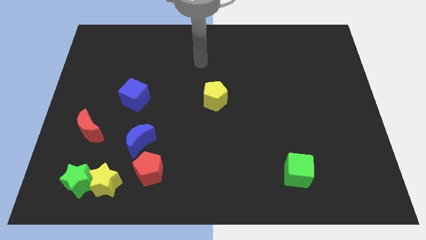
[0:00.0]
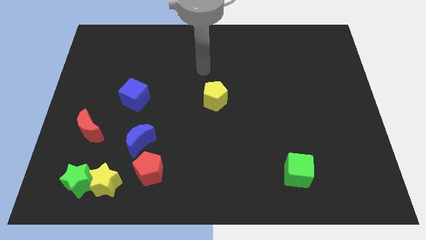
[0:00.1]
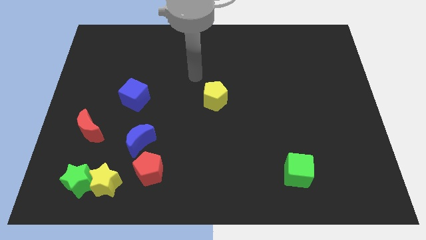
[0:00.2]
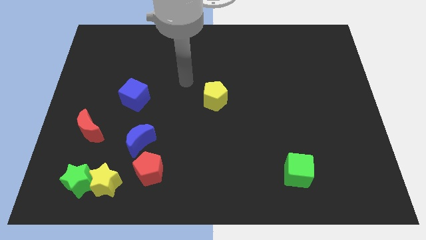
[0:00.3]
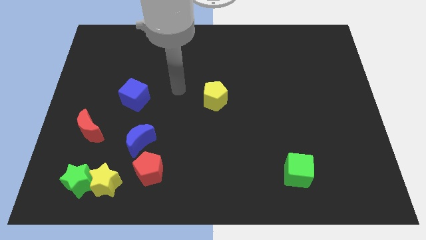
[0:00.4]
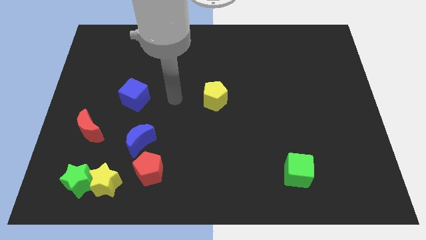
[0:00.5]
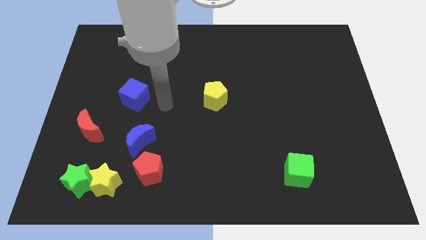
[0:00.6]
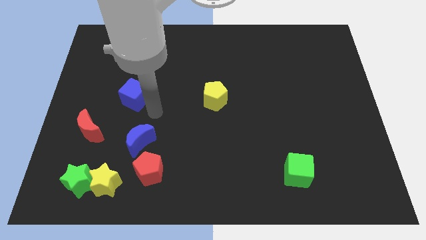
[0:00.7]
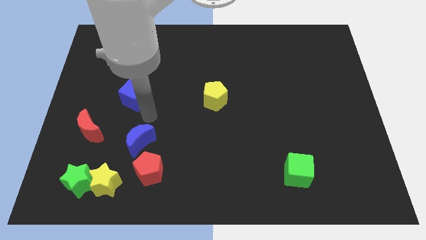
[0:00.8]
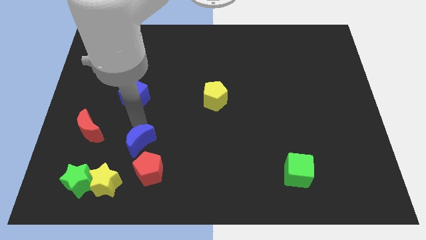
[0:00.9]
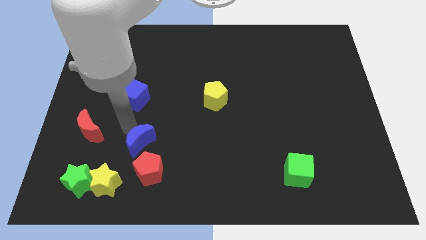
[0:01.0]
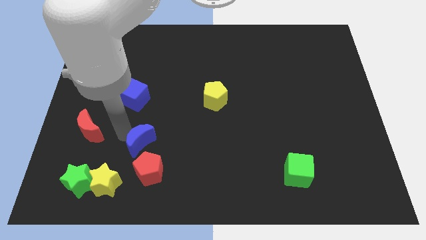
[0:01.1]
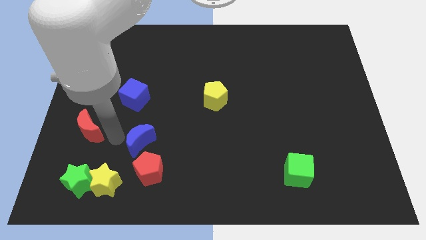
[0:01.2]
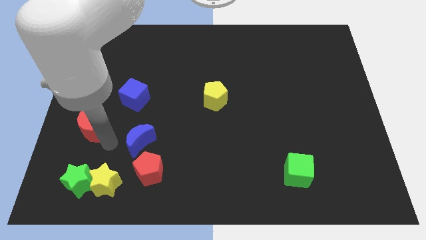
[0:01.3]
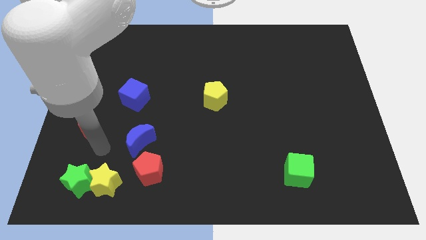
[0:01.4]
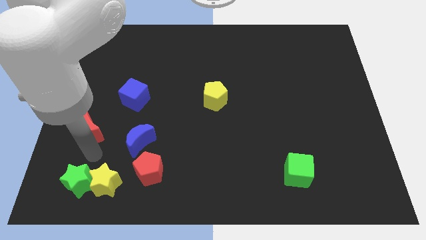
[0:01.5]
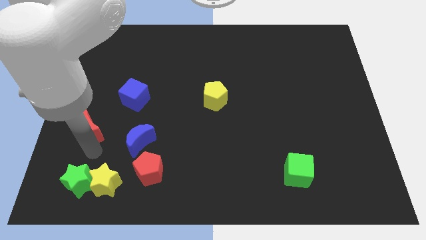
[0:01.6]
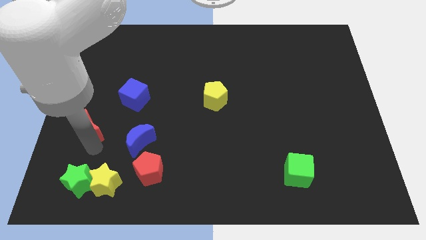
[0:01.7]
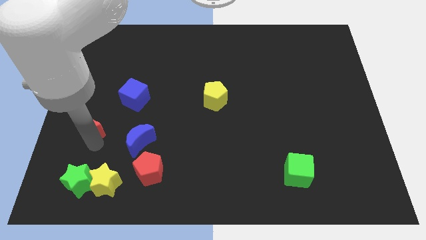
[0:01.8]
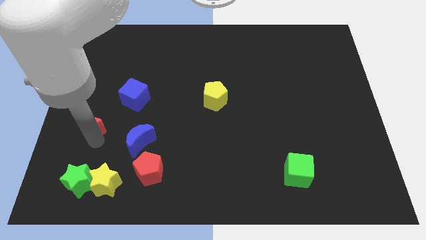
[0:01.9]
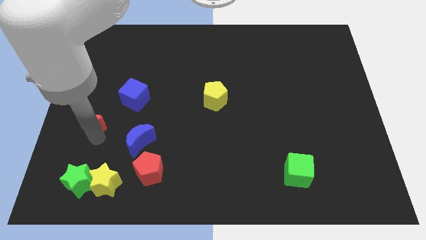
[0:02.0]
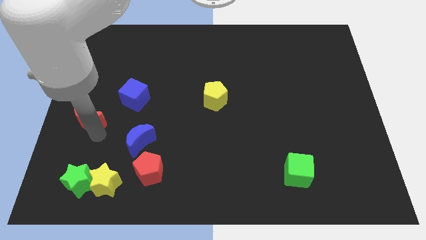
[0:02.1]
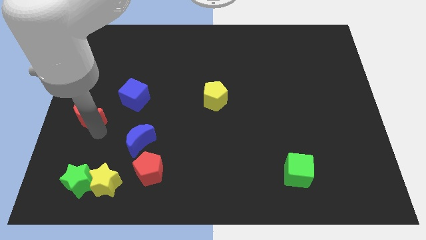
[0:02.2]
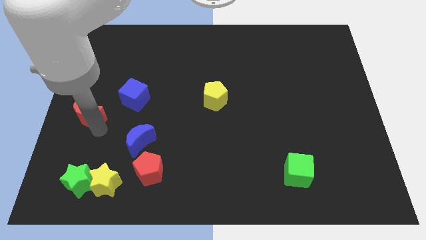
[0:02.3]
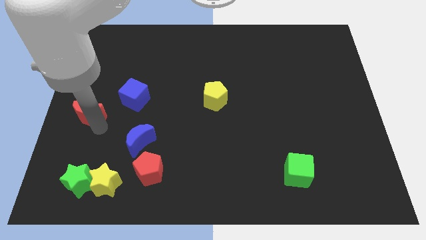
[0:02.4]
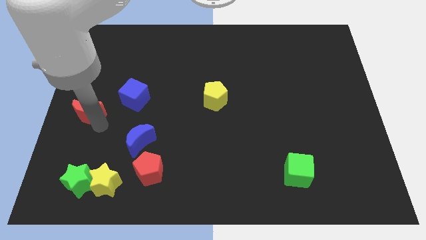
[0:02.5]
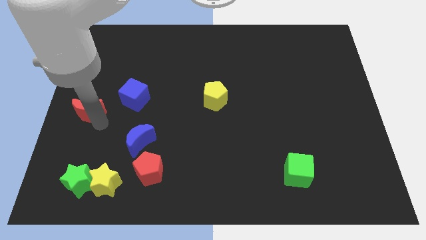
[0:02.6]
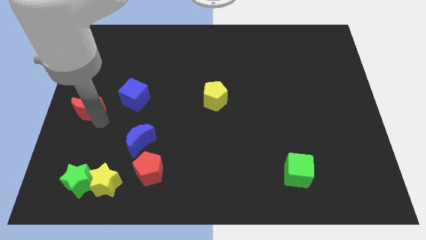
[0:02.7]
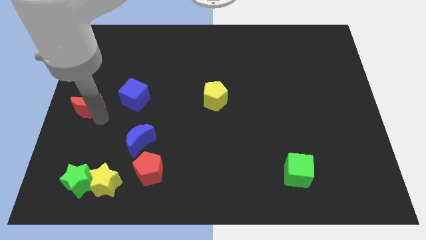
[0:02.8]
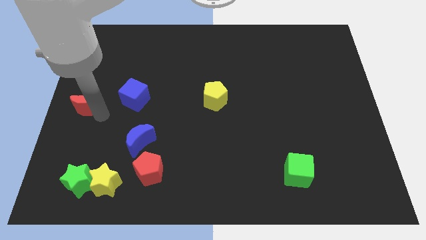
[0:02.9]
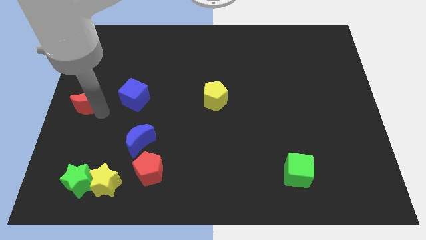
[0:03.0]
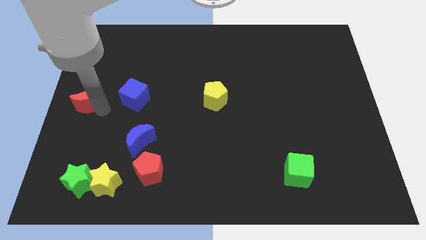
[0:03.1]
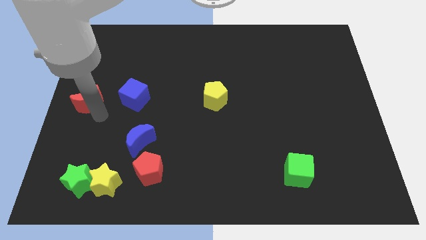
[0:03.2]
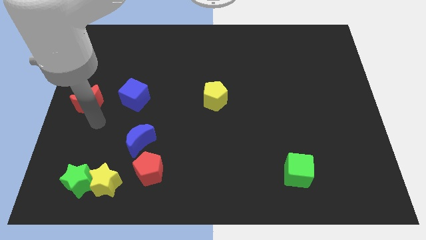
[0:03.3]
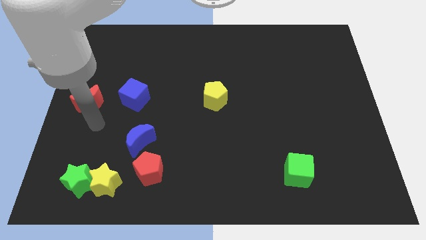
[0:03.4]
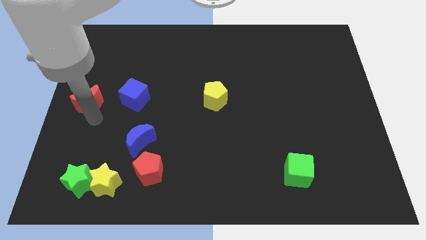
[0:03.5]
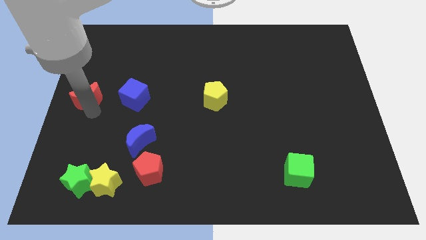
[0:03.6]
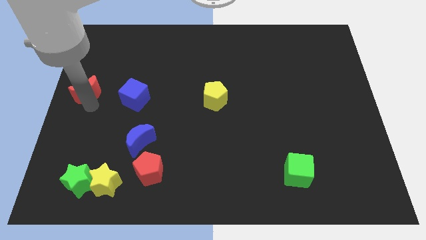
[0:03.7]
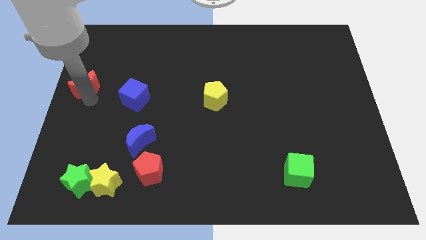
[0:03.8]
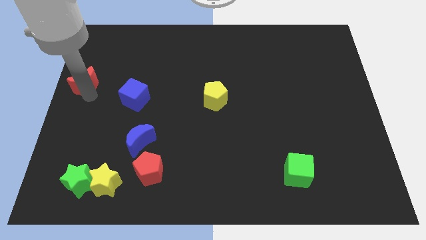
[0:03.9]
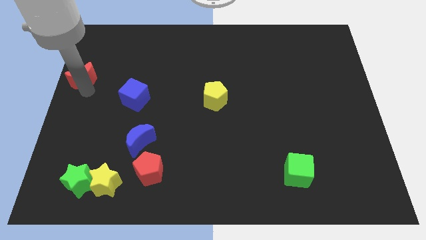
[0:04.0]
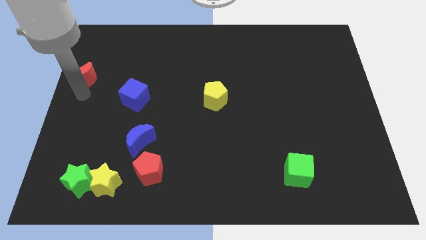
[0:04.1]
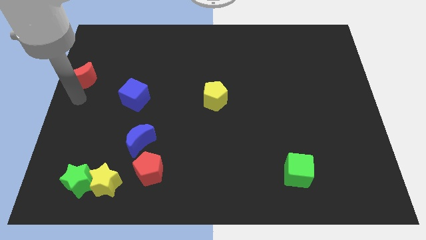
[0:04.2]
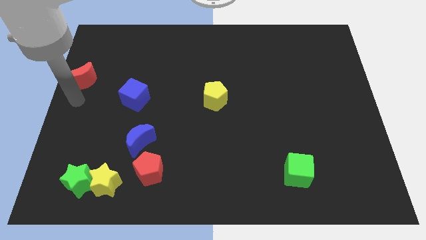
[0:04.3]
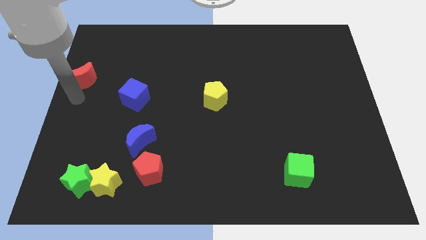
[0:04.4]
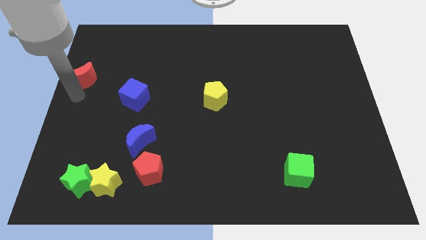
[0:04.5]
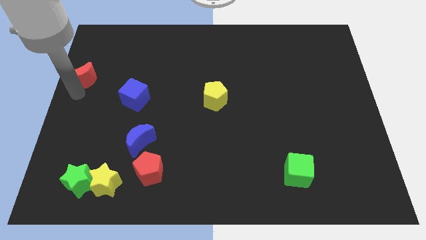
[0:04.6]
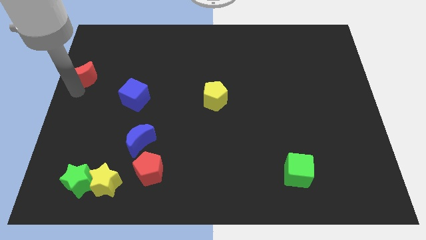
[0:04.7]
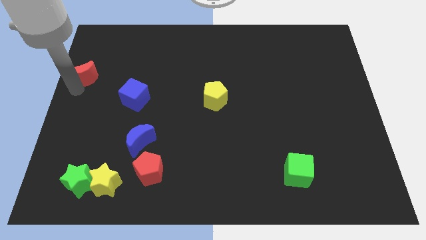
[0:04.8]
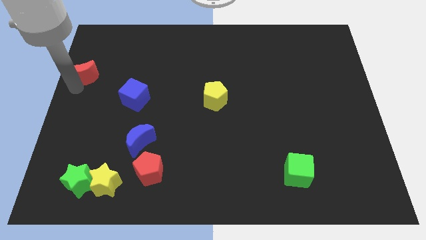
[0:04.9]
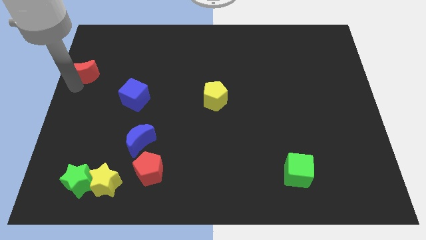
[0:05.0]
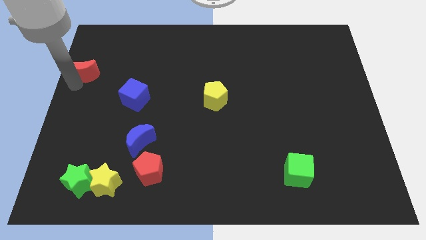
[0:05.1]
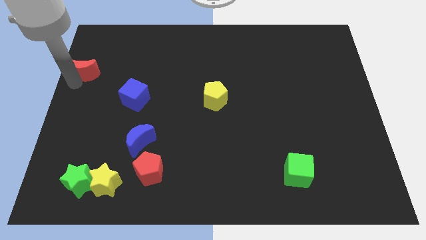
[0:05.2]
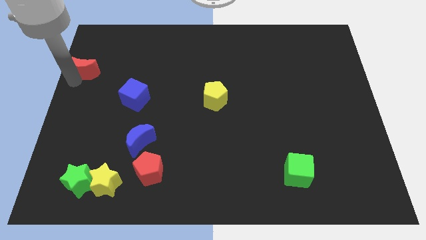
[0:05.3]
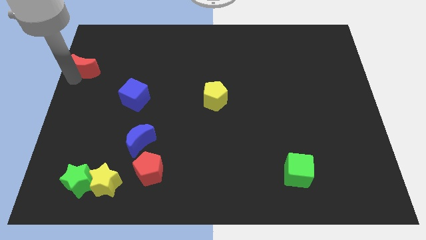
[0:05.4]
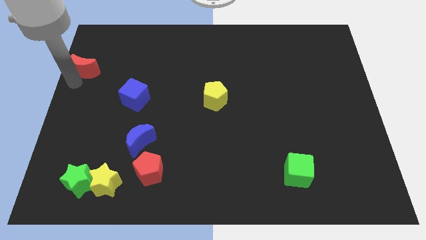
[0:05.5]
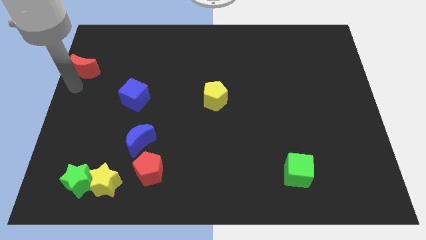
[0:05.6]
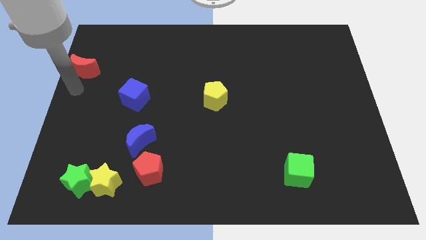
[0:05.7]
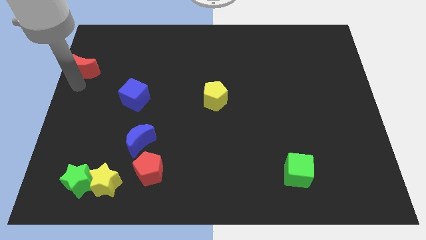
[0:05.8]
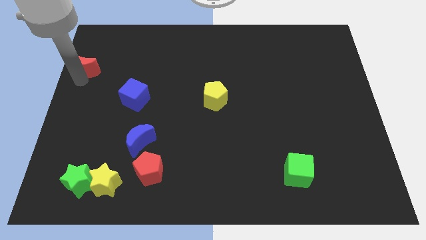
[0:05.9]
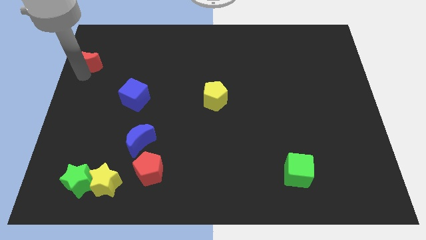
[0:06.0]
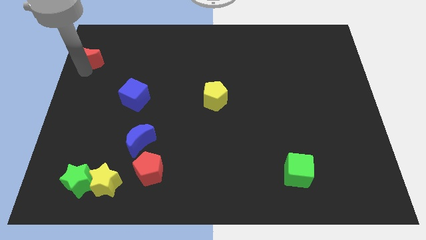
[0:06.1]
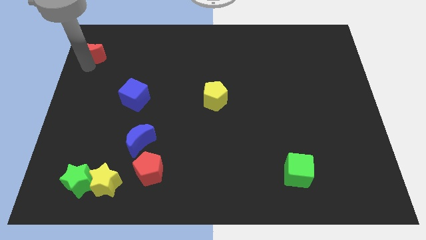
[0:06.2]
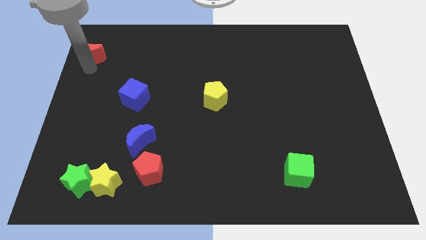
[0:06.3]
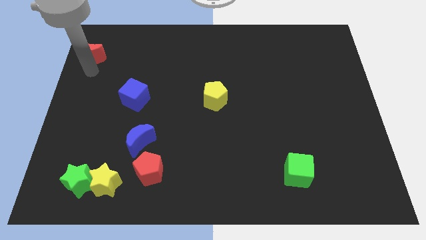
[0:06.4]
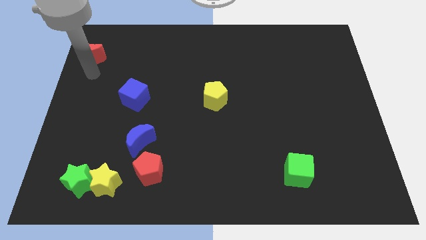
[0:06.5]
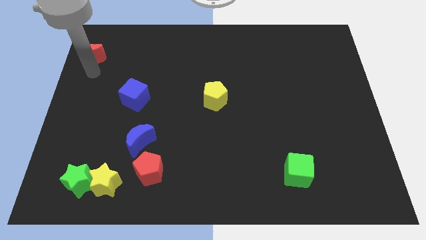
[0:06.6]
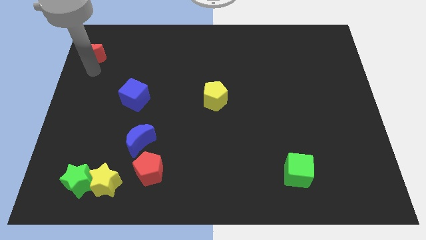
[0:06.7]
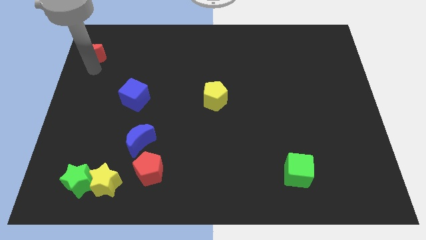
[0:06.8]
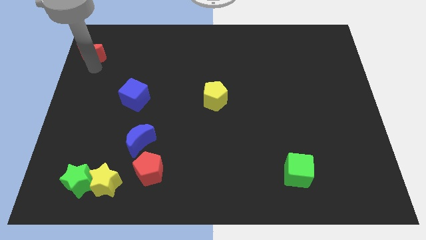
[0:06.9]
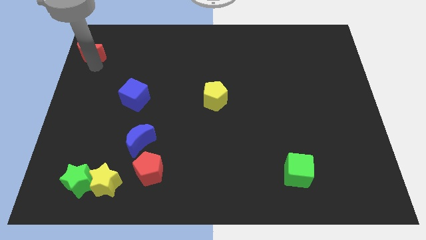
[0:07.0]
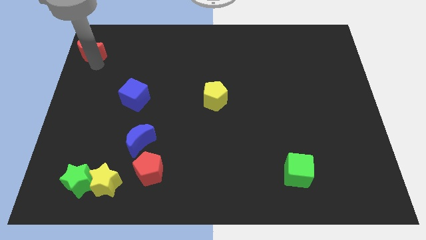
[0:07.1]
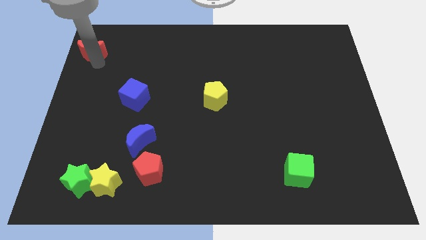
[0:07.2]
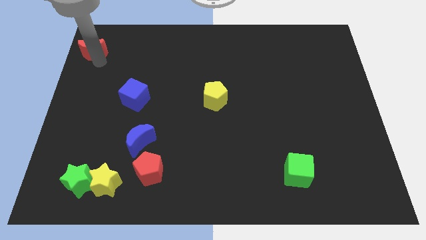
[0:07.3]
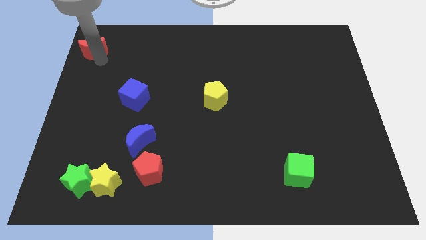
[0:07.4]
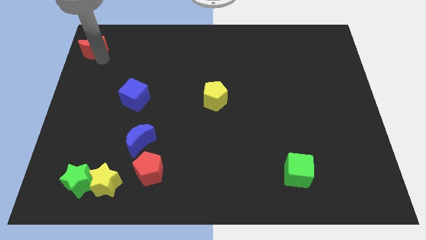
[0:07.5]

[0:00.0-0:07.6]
push the red moon to the top left
